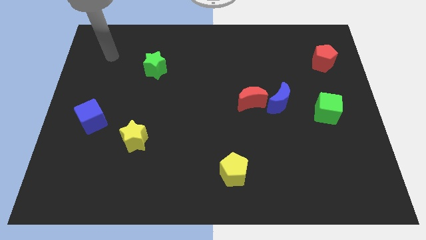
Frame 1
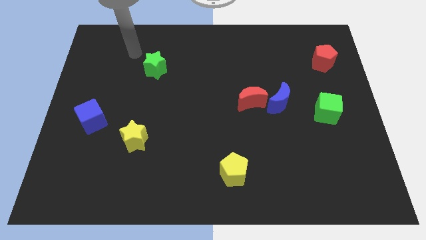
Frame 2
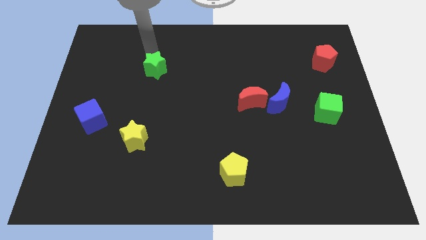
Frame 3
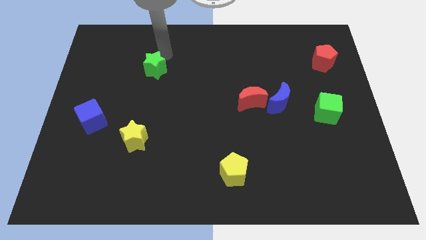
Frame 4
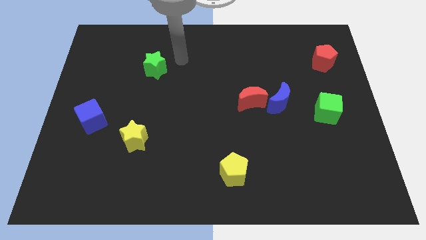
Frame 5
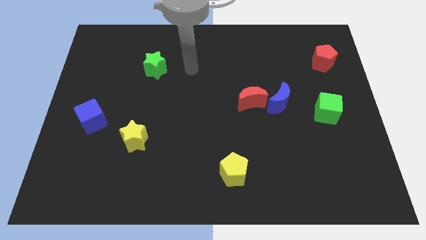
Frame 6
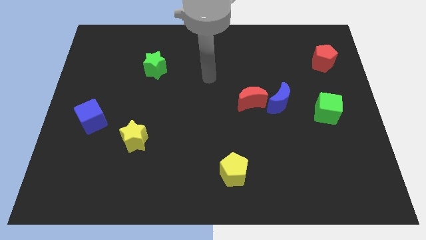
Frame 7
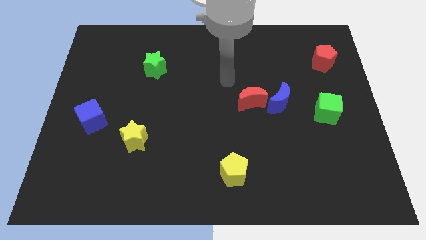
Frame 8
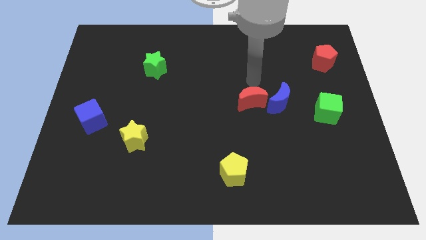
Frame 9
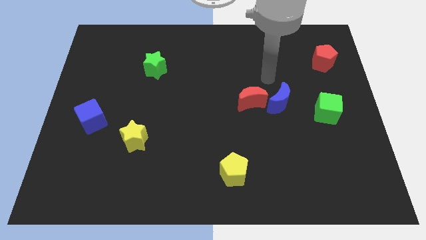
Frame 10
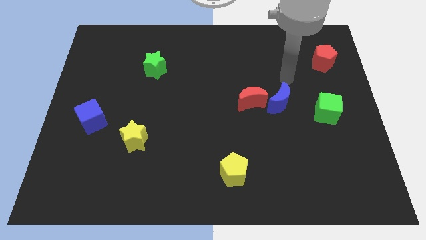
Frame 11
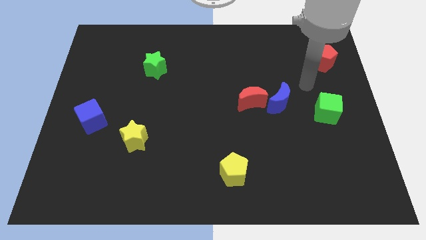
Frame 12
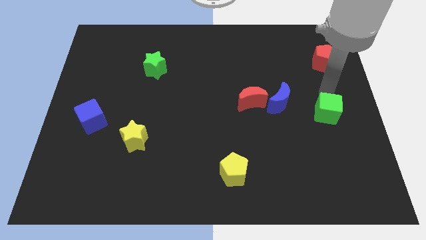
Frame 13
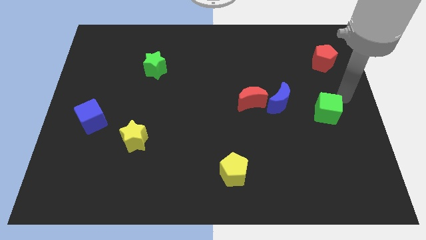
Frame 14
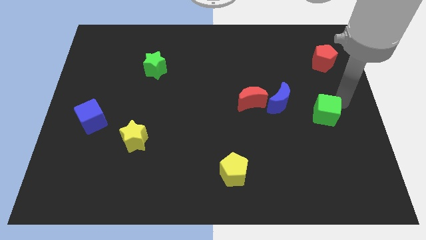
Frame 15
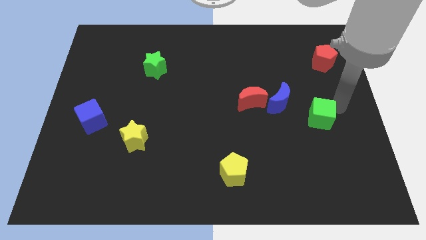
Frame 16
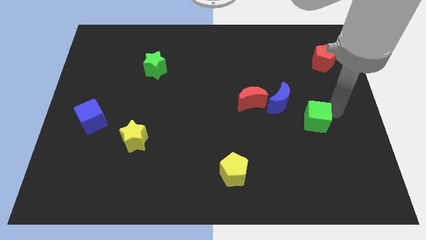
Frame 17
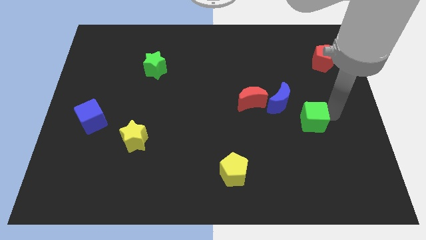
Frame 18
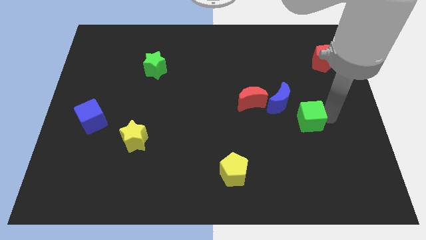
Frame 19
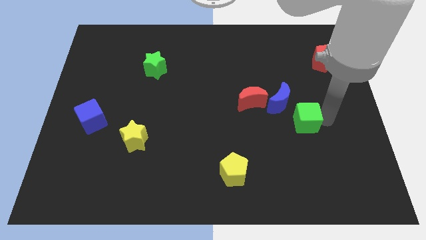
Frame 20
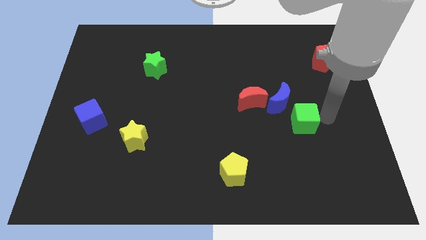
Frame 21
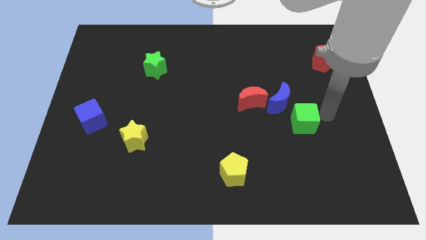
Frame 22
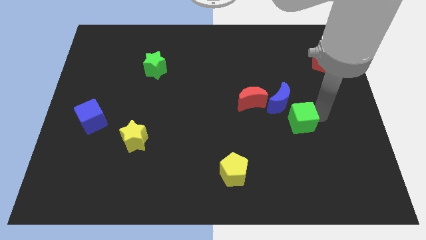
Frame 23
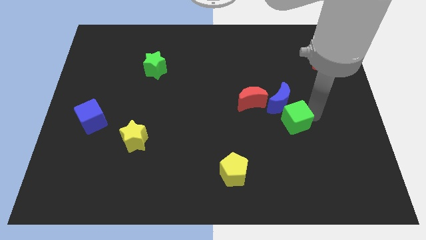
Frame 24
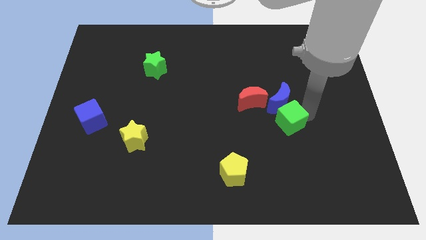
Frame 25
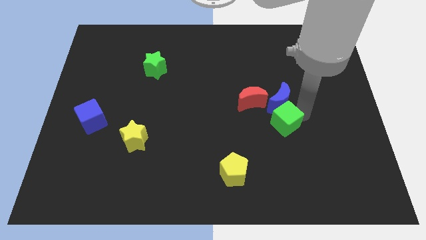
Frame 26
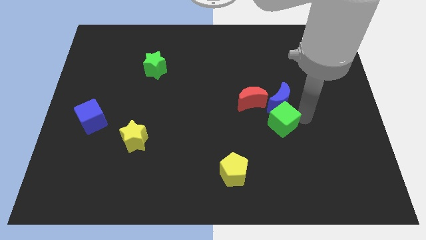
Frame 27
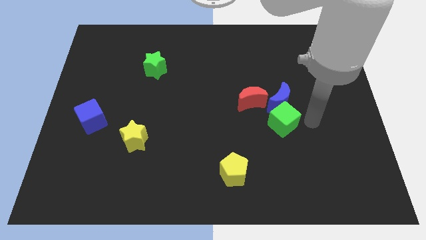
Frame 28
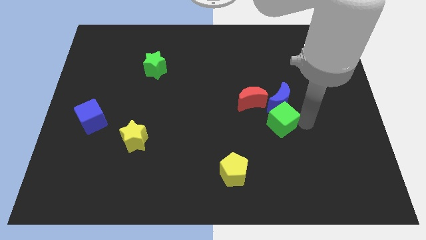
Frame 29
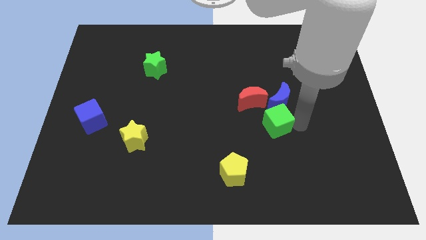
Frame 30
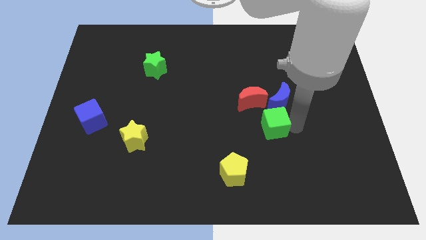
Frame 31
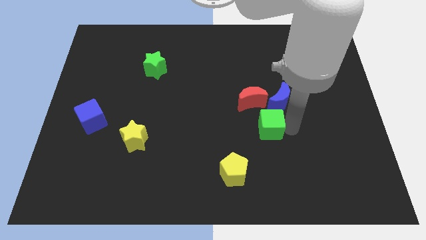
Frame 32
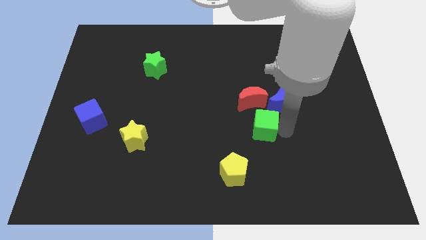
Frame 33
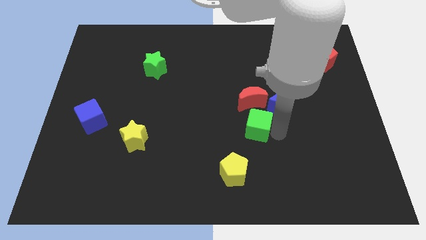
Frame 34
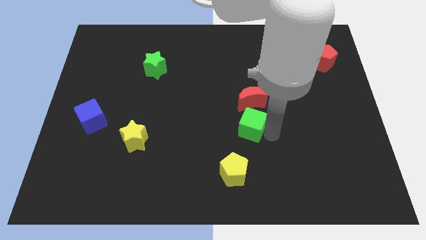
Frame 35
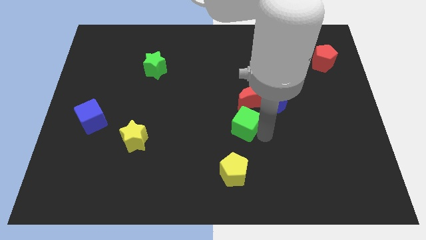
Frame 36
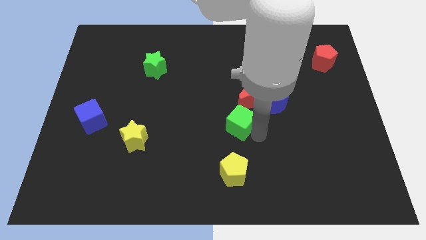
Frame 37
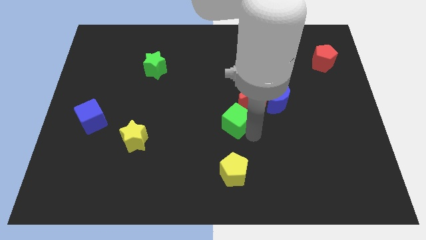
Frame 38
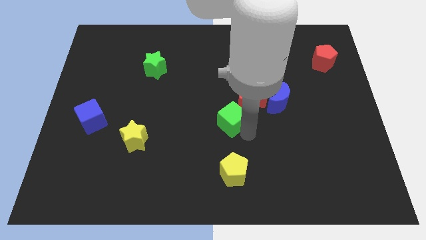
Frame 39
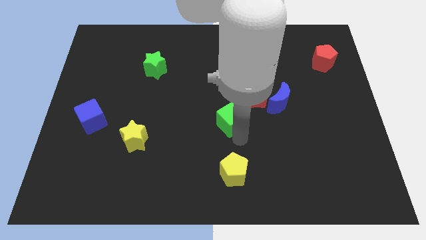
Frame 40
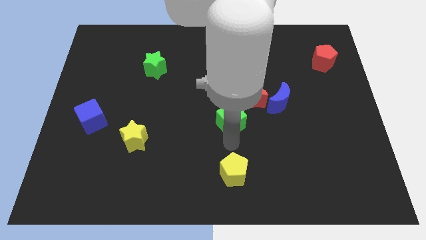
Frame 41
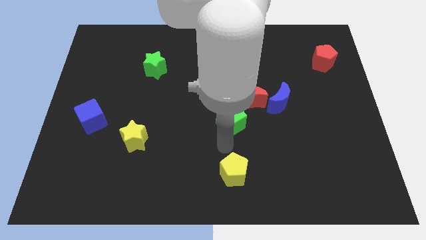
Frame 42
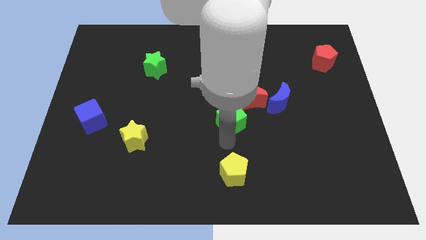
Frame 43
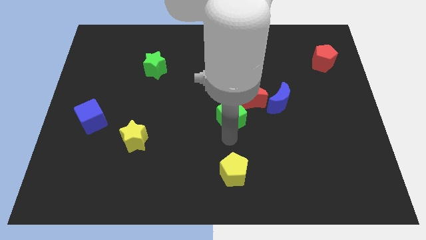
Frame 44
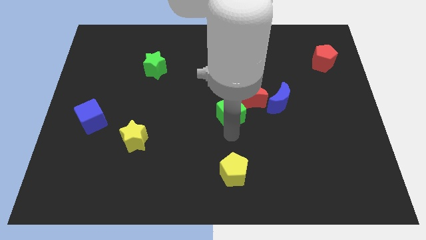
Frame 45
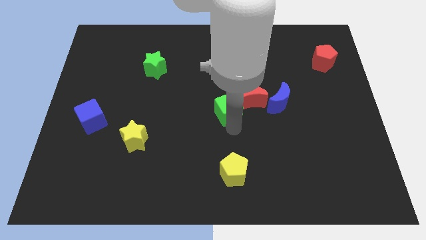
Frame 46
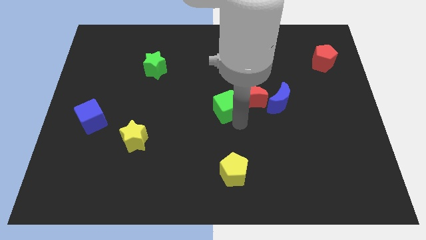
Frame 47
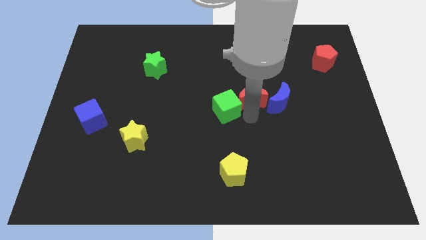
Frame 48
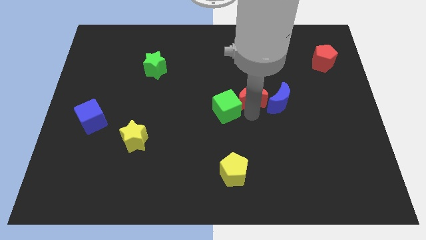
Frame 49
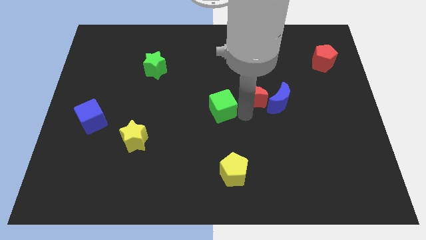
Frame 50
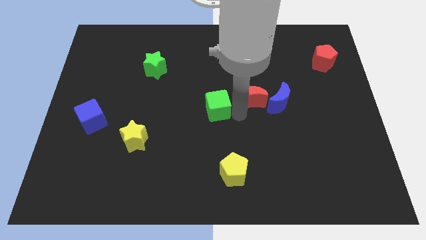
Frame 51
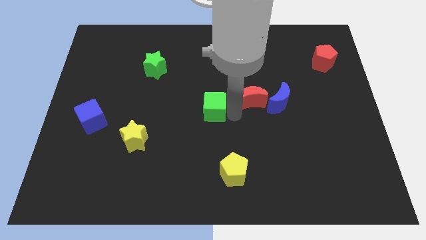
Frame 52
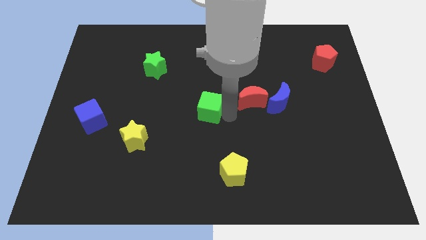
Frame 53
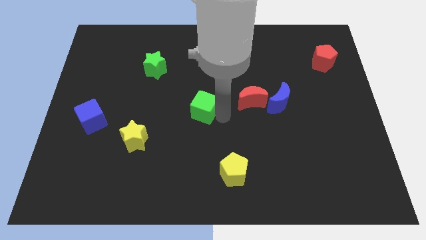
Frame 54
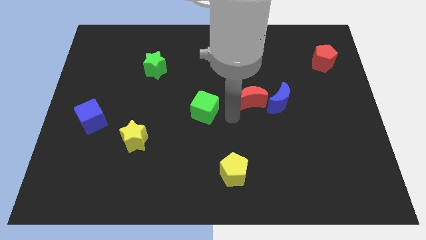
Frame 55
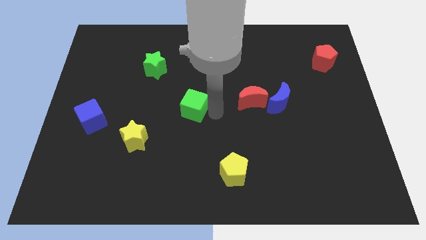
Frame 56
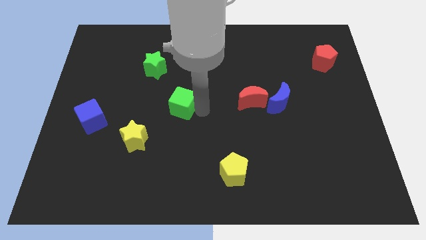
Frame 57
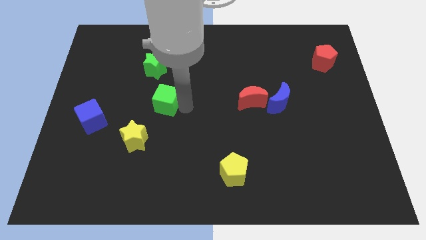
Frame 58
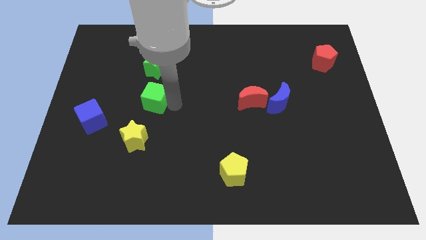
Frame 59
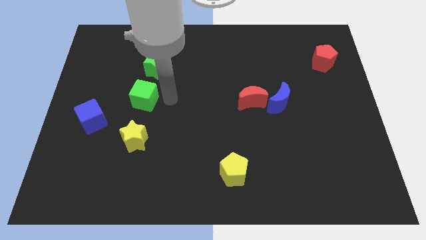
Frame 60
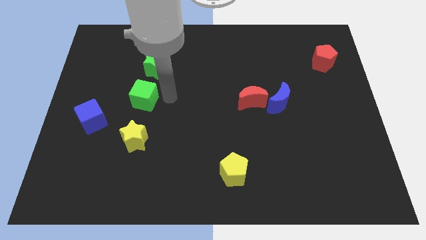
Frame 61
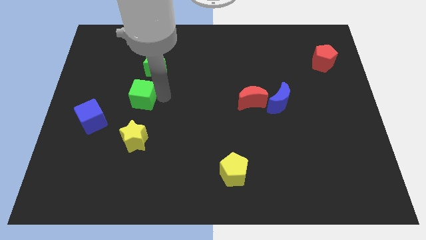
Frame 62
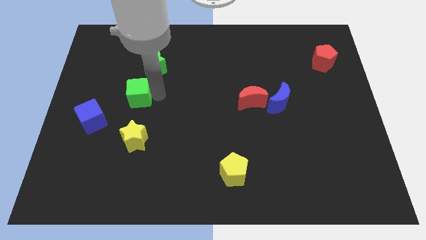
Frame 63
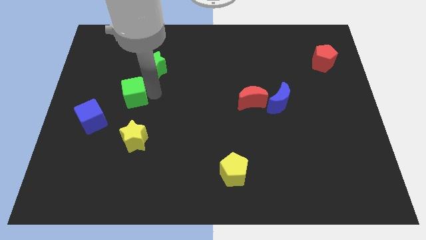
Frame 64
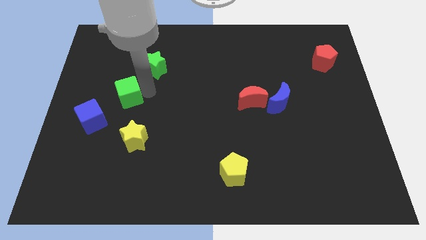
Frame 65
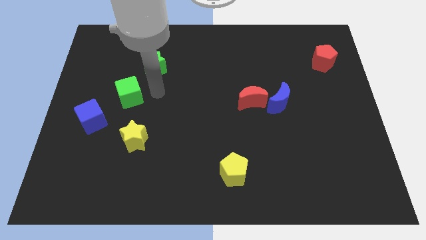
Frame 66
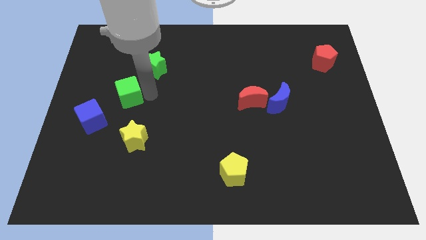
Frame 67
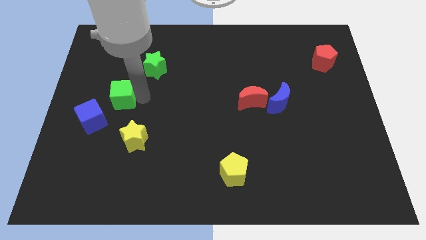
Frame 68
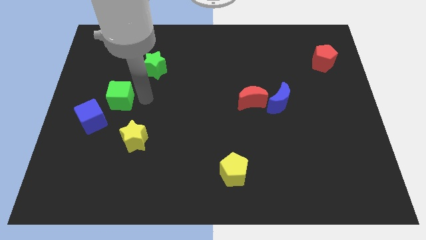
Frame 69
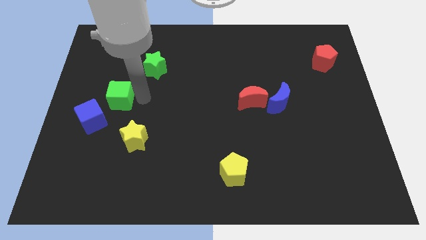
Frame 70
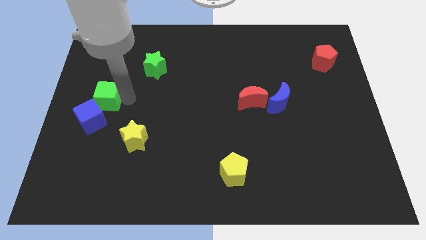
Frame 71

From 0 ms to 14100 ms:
put the green cube to the center left
